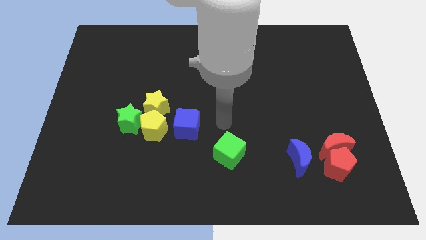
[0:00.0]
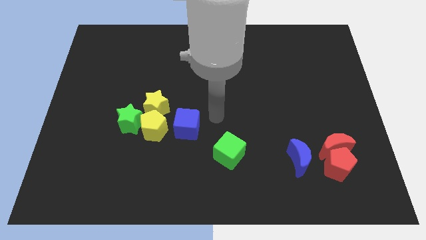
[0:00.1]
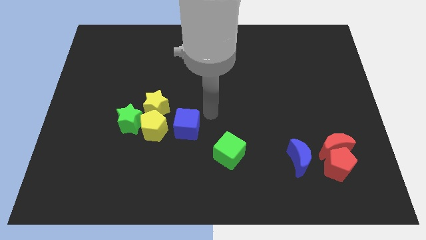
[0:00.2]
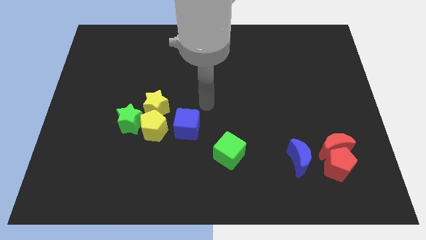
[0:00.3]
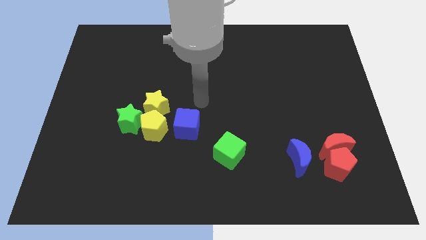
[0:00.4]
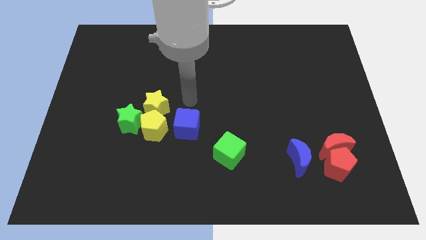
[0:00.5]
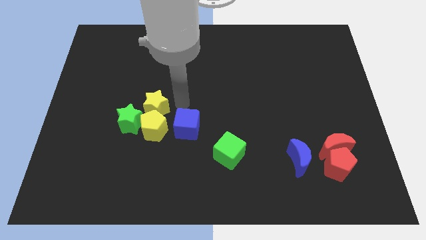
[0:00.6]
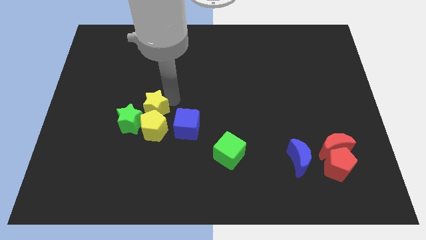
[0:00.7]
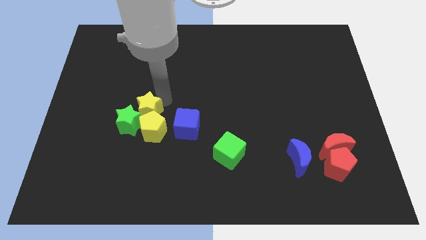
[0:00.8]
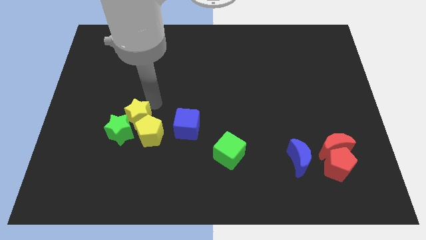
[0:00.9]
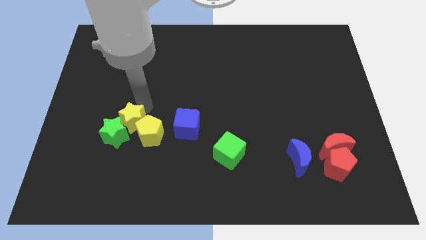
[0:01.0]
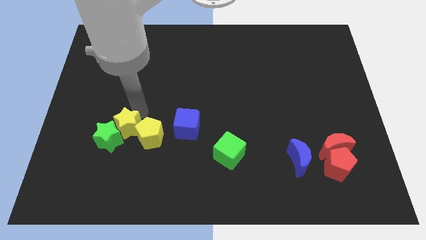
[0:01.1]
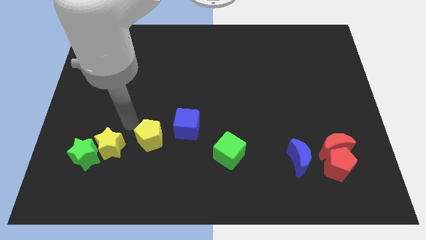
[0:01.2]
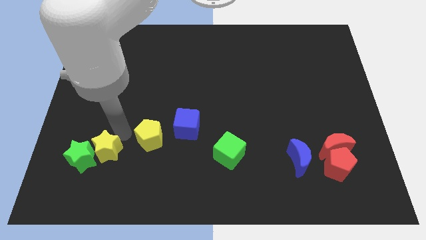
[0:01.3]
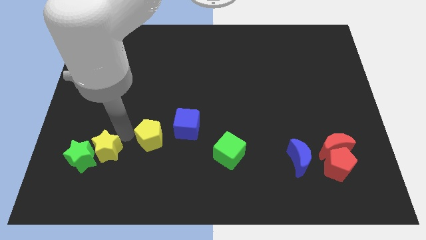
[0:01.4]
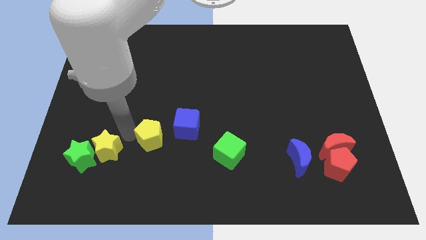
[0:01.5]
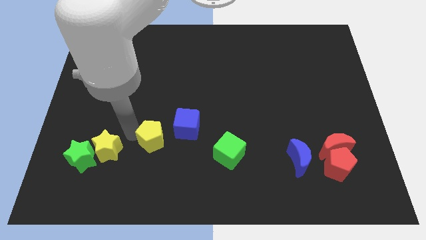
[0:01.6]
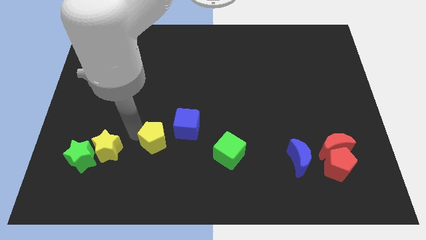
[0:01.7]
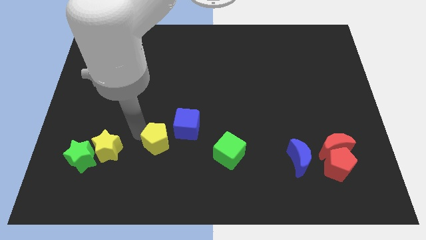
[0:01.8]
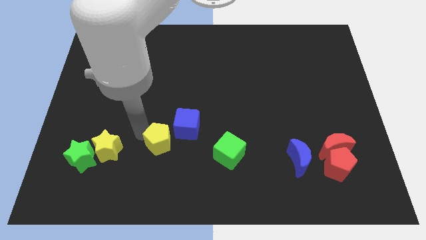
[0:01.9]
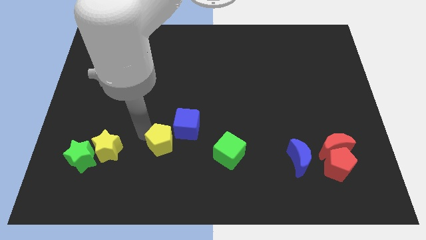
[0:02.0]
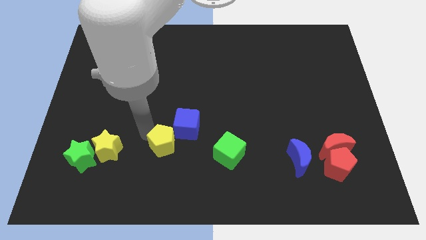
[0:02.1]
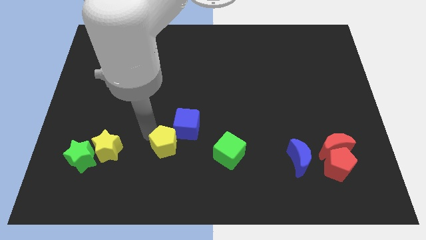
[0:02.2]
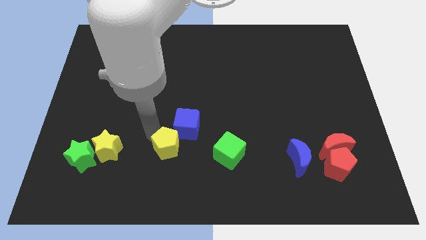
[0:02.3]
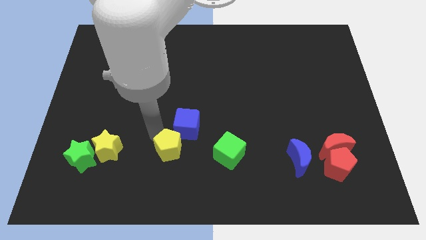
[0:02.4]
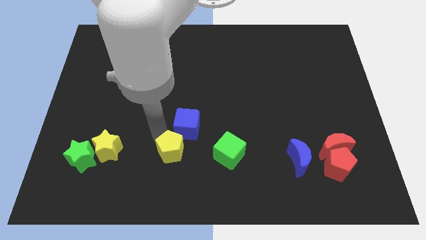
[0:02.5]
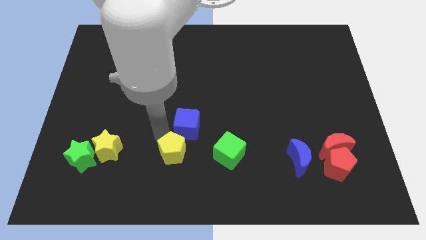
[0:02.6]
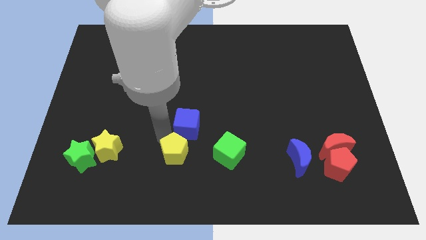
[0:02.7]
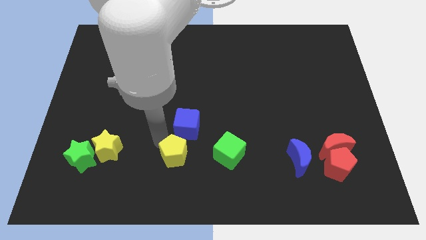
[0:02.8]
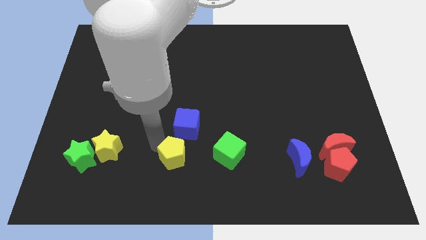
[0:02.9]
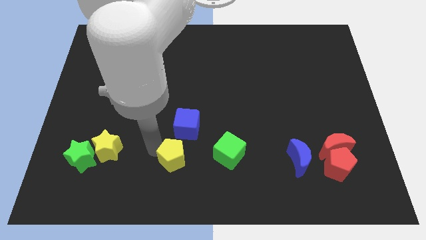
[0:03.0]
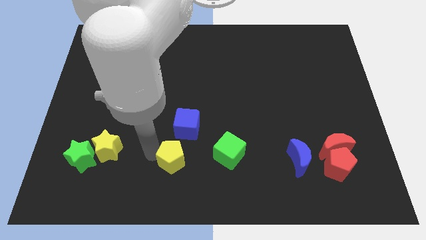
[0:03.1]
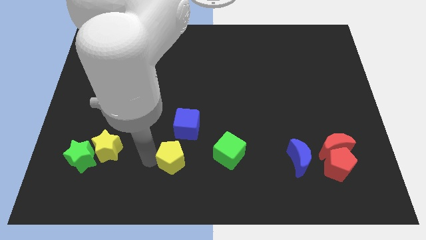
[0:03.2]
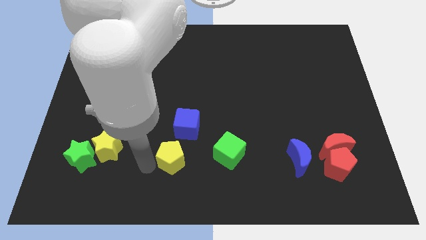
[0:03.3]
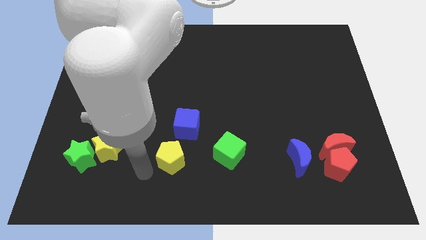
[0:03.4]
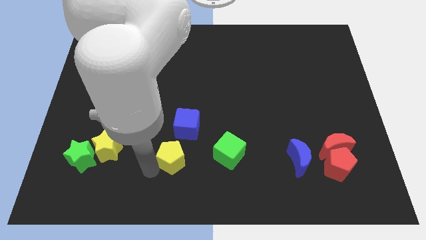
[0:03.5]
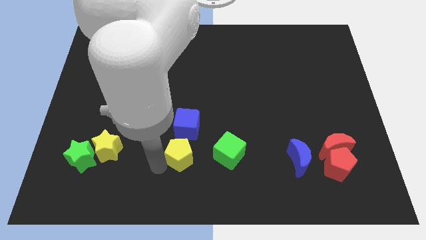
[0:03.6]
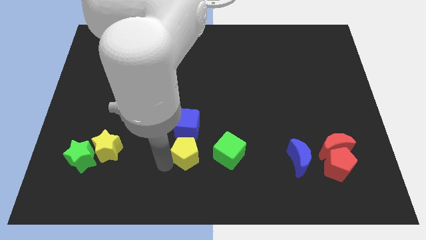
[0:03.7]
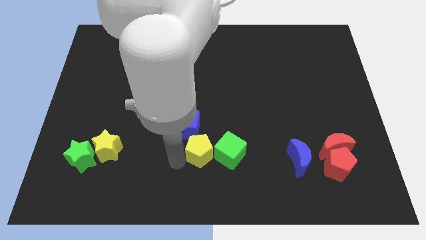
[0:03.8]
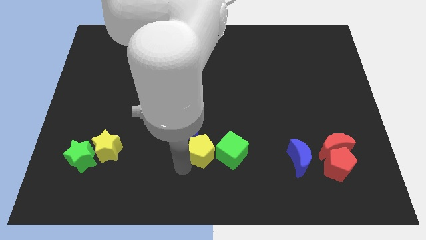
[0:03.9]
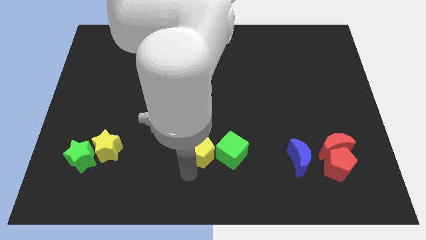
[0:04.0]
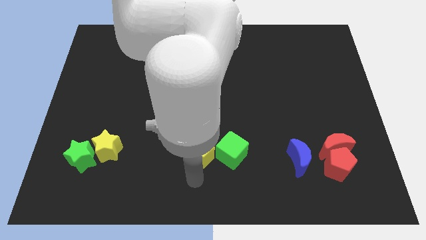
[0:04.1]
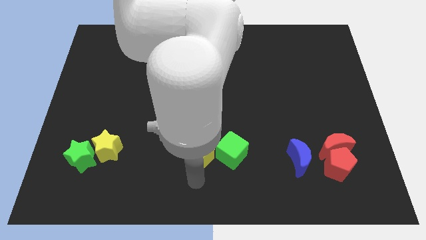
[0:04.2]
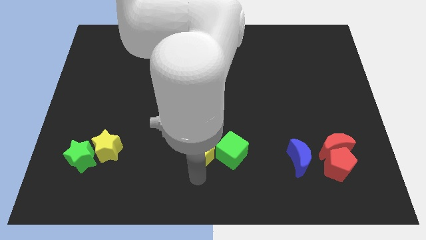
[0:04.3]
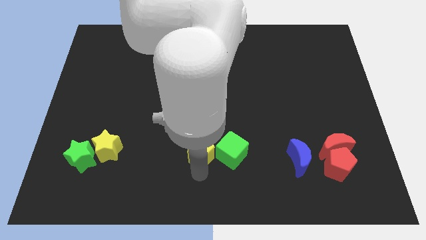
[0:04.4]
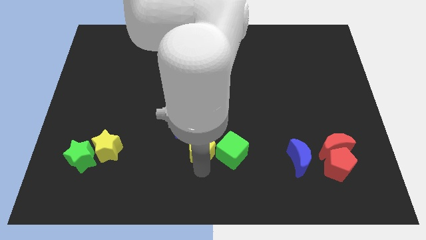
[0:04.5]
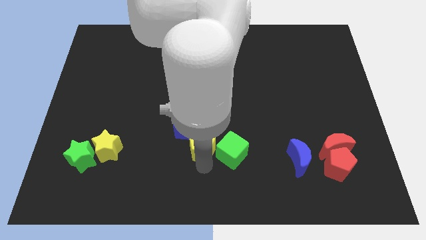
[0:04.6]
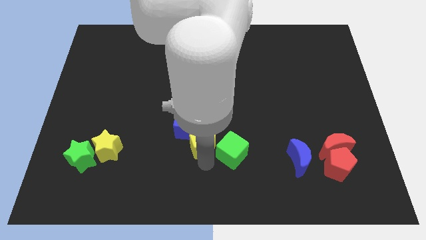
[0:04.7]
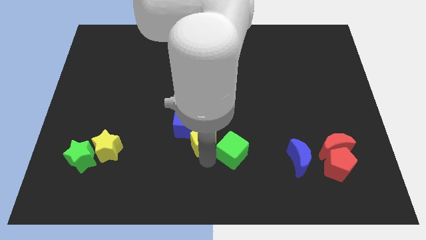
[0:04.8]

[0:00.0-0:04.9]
move the yellow pentagon to the middle

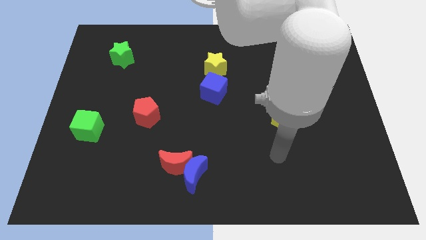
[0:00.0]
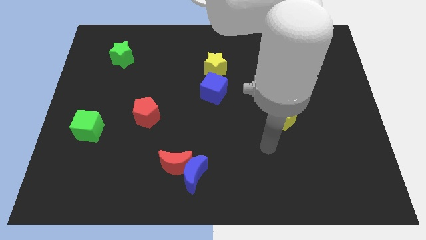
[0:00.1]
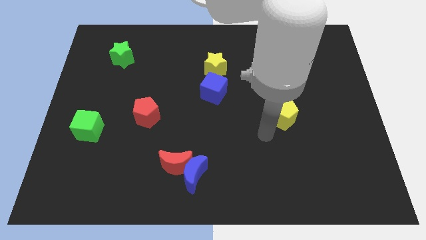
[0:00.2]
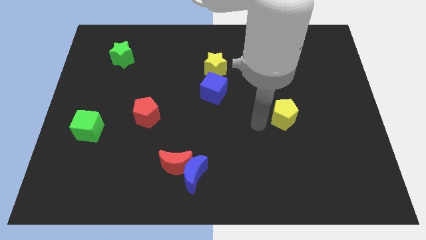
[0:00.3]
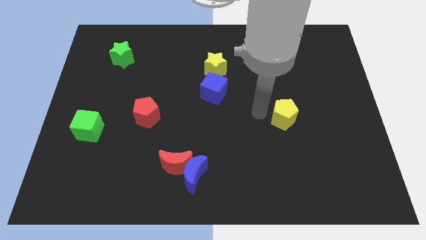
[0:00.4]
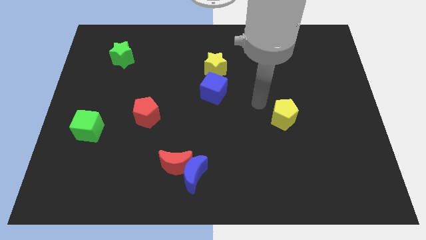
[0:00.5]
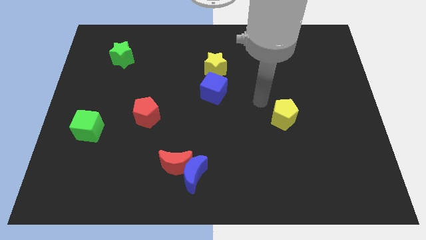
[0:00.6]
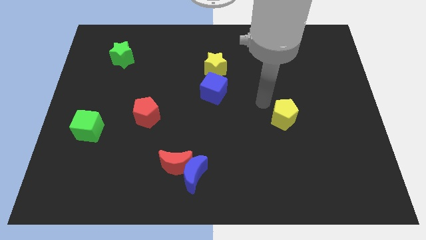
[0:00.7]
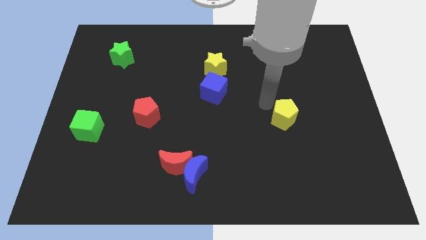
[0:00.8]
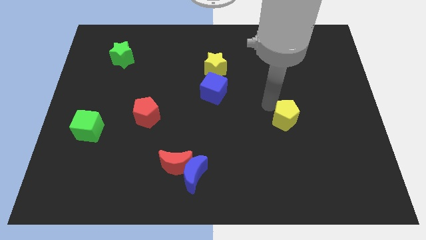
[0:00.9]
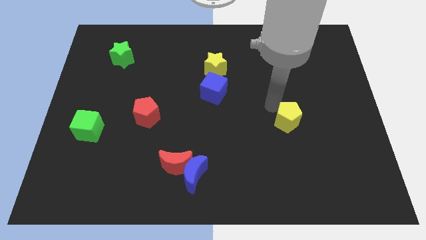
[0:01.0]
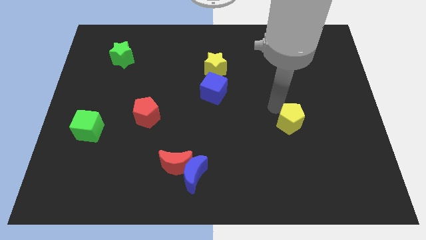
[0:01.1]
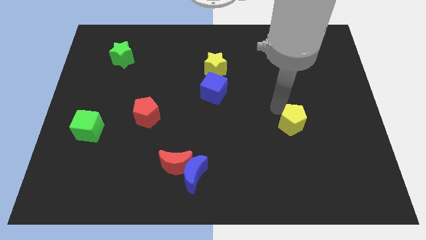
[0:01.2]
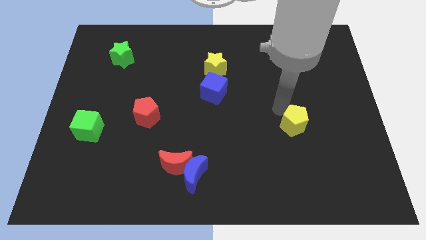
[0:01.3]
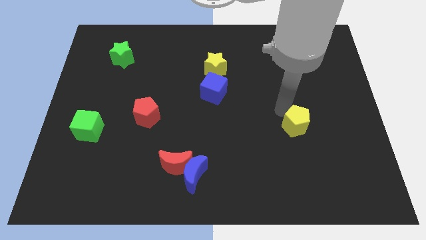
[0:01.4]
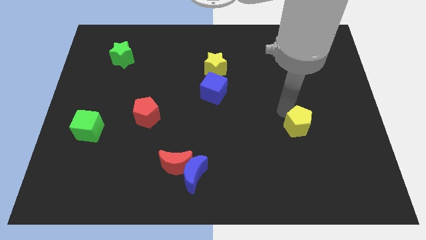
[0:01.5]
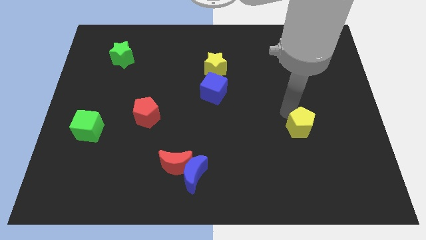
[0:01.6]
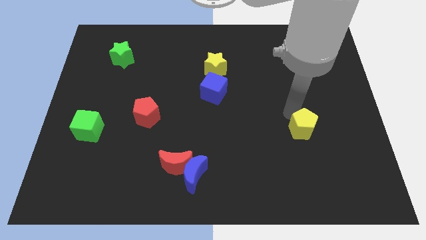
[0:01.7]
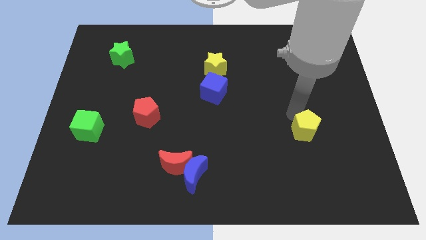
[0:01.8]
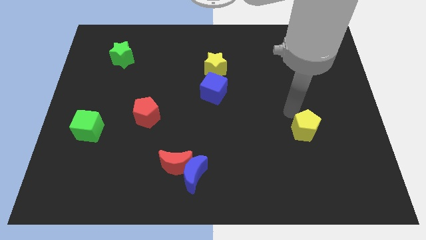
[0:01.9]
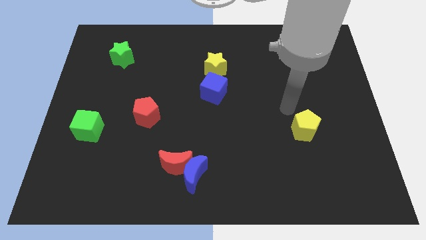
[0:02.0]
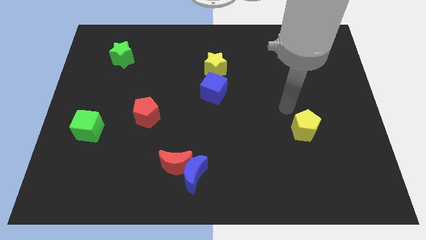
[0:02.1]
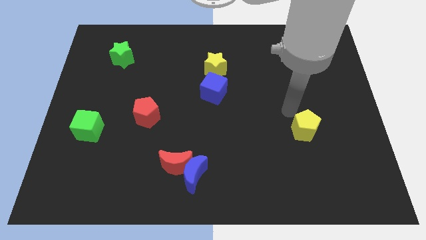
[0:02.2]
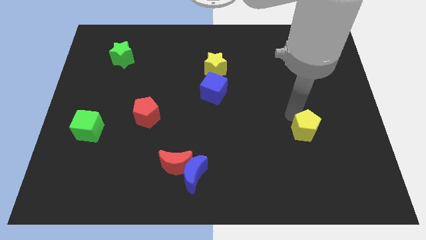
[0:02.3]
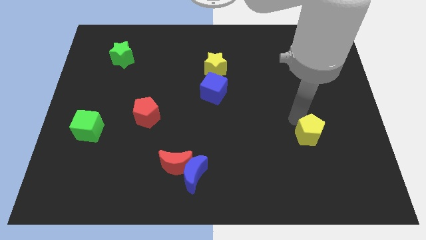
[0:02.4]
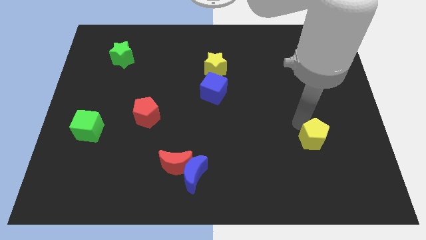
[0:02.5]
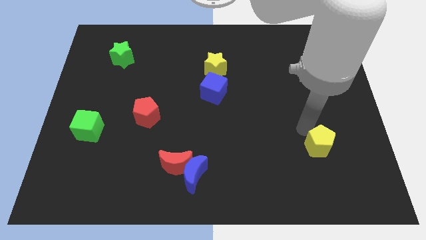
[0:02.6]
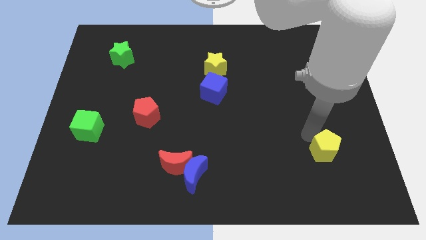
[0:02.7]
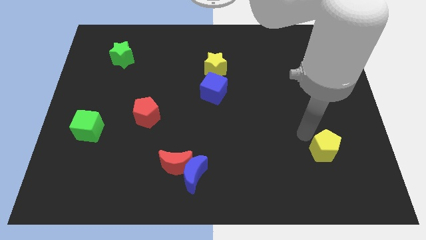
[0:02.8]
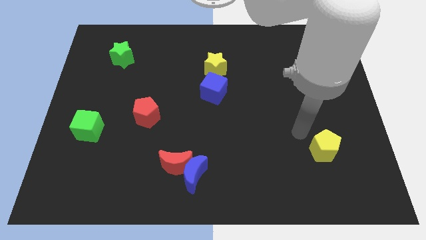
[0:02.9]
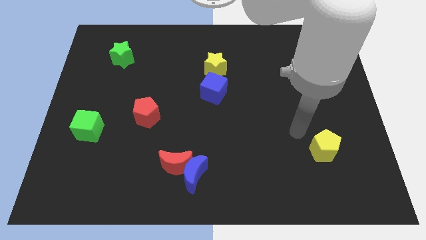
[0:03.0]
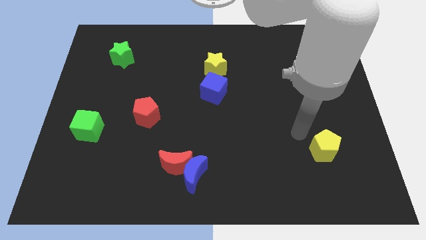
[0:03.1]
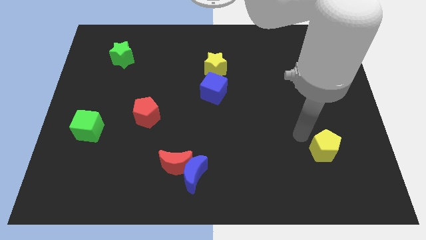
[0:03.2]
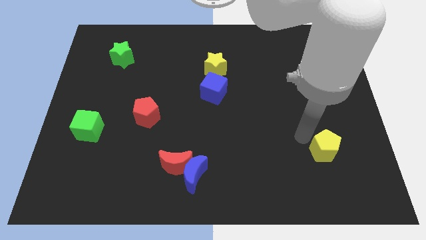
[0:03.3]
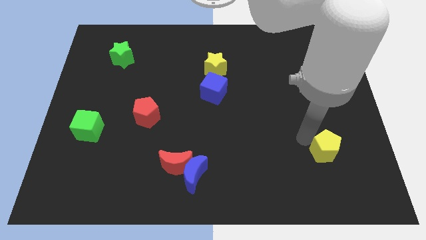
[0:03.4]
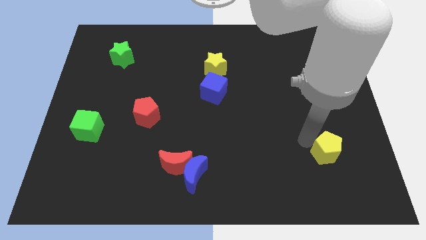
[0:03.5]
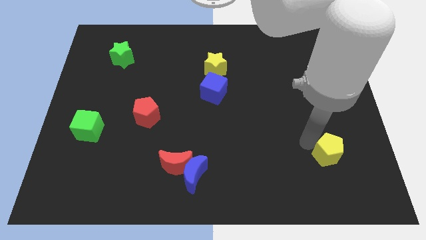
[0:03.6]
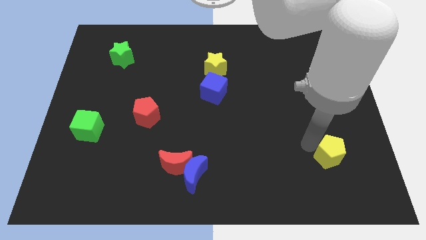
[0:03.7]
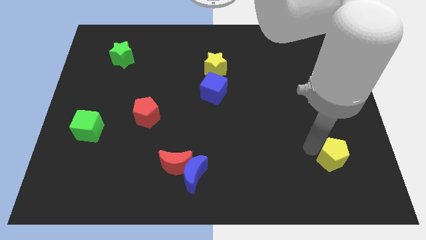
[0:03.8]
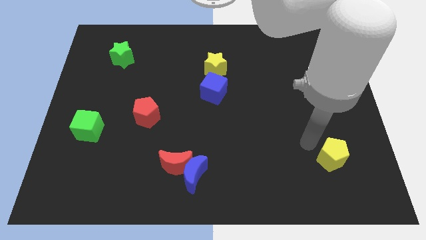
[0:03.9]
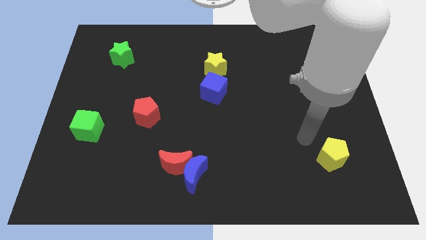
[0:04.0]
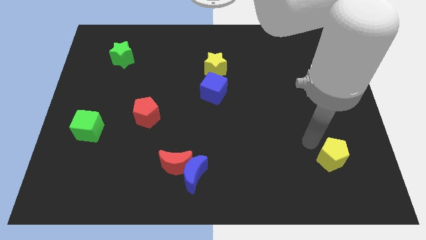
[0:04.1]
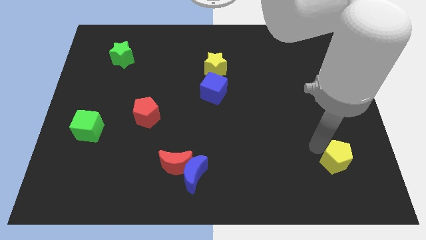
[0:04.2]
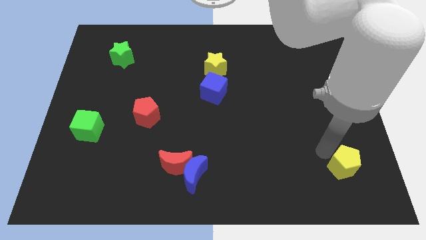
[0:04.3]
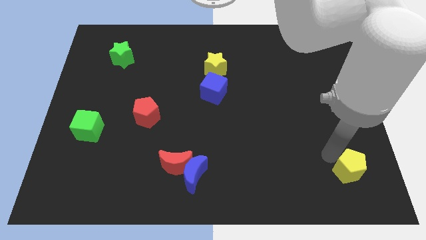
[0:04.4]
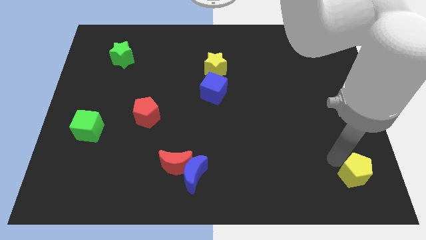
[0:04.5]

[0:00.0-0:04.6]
move the yellow pentagon to the lower right corner
